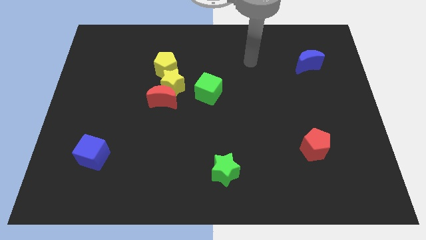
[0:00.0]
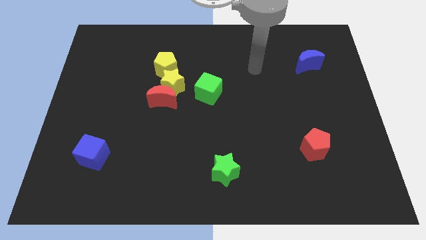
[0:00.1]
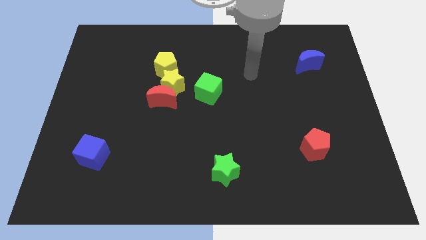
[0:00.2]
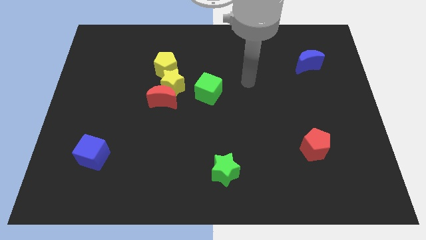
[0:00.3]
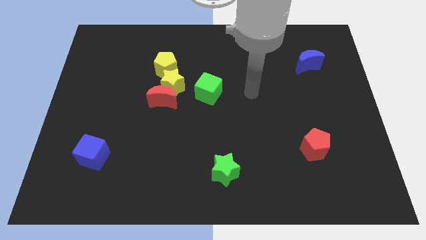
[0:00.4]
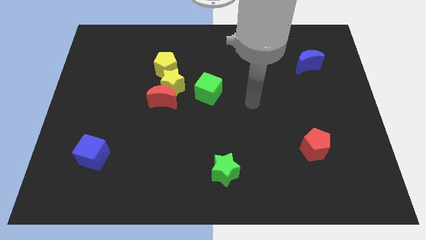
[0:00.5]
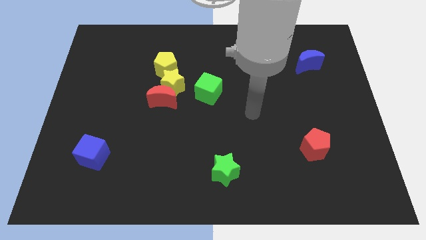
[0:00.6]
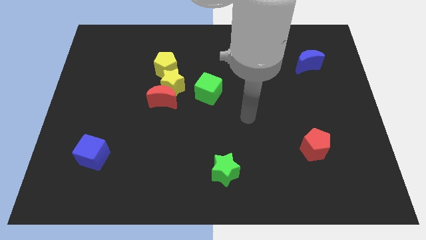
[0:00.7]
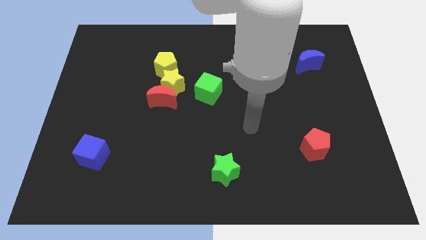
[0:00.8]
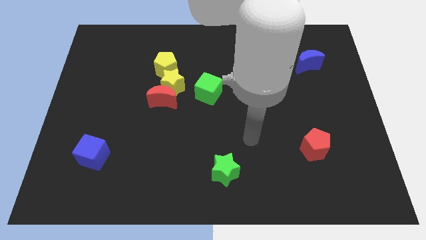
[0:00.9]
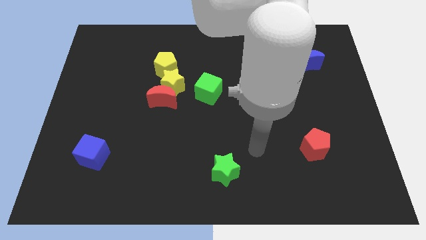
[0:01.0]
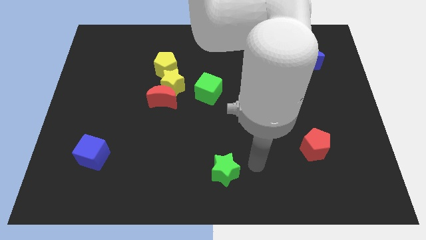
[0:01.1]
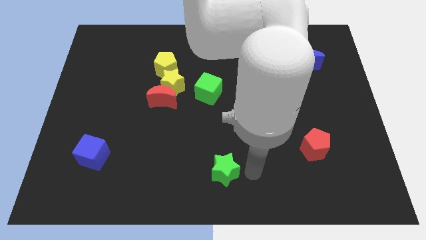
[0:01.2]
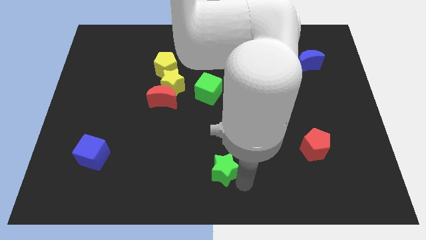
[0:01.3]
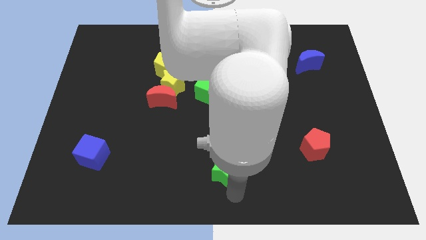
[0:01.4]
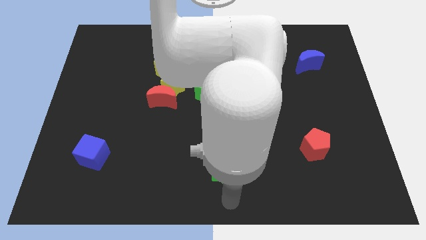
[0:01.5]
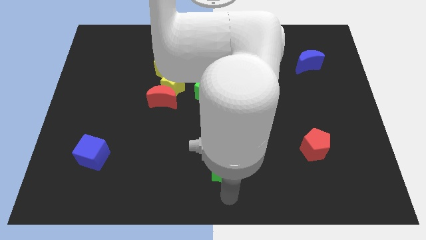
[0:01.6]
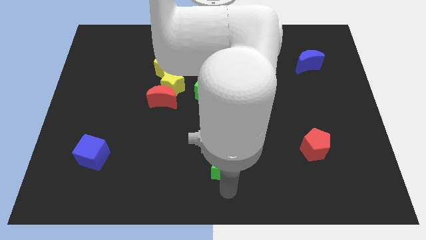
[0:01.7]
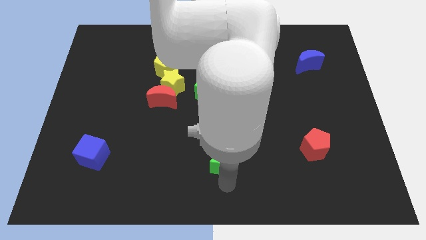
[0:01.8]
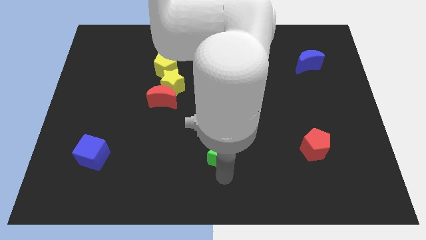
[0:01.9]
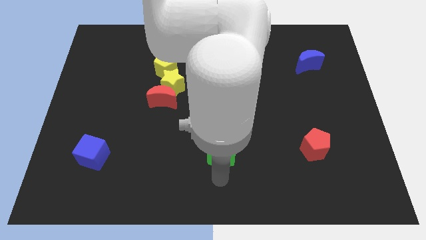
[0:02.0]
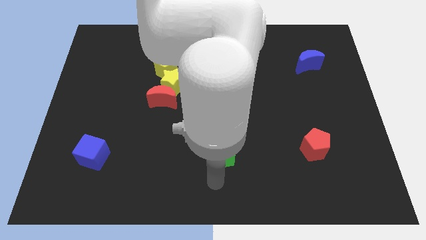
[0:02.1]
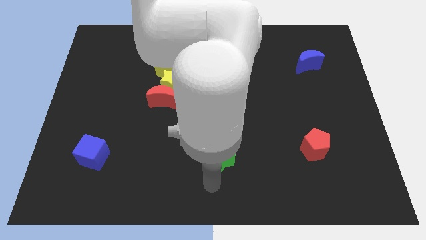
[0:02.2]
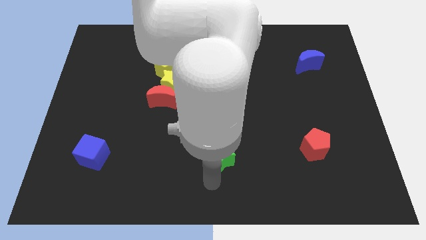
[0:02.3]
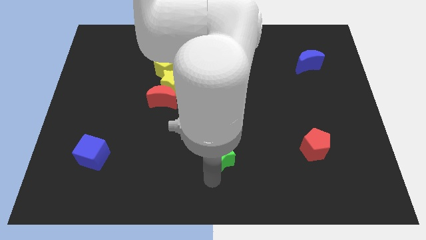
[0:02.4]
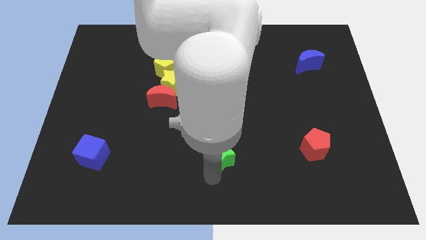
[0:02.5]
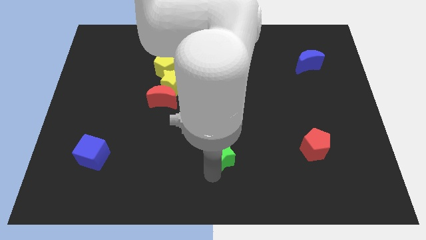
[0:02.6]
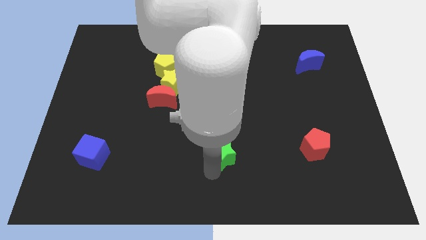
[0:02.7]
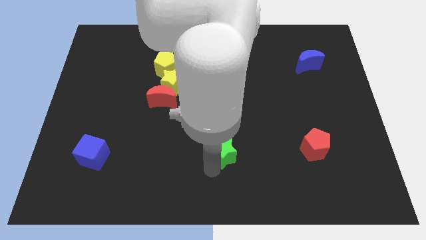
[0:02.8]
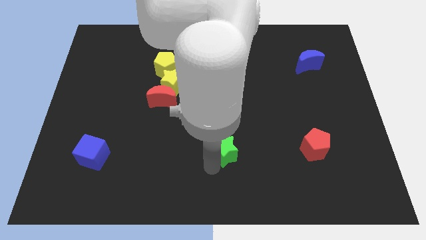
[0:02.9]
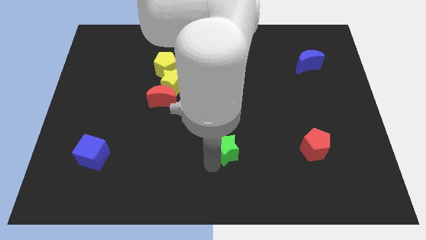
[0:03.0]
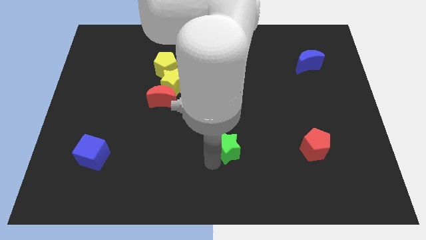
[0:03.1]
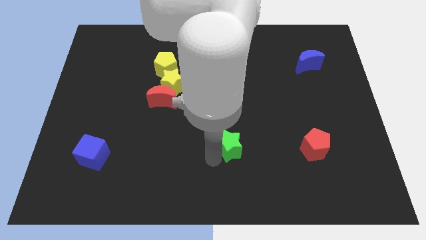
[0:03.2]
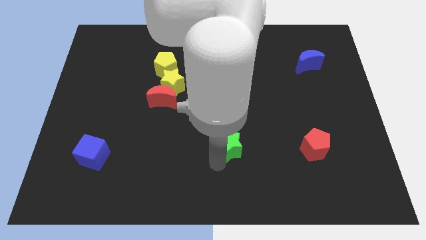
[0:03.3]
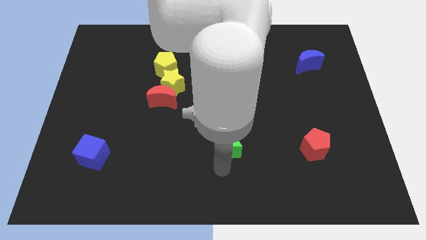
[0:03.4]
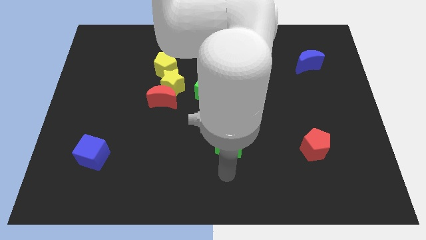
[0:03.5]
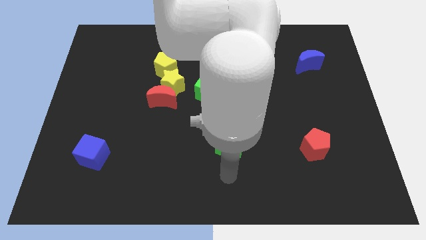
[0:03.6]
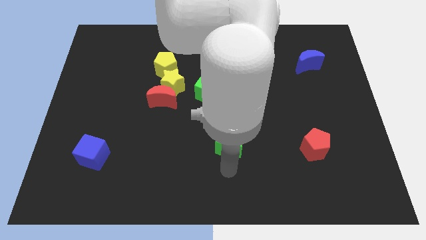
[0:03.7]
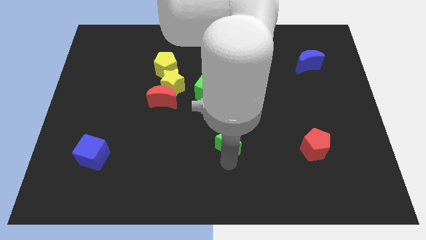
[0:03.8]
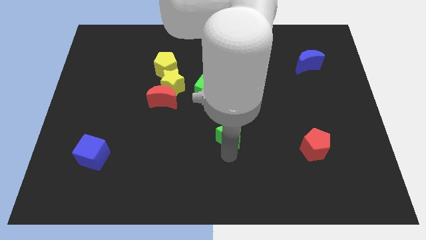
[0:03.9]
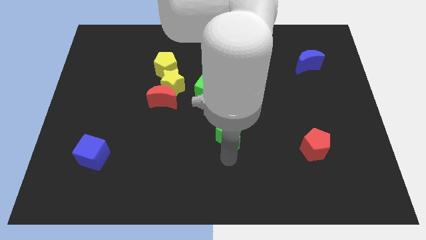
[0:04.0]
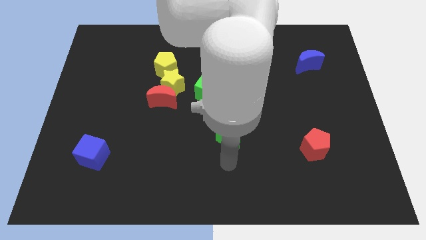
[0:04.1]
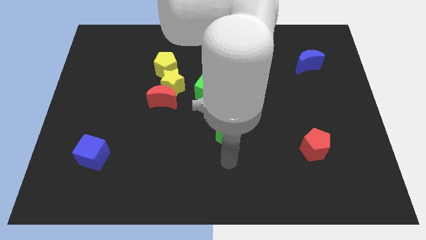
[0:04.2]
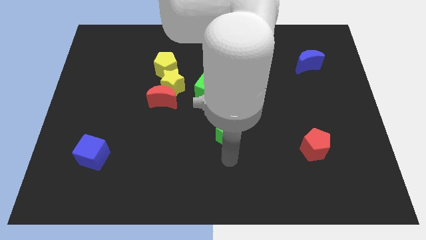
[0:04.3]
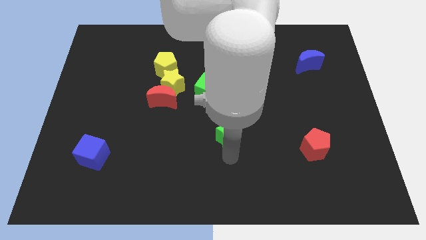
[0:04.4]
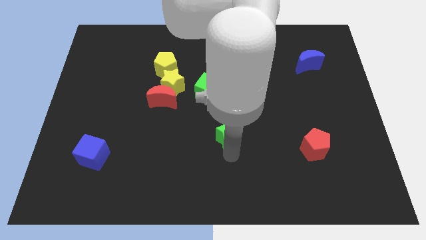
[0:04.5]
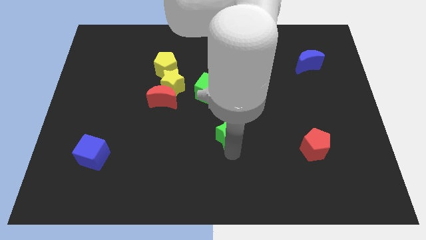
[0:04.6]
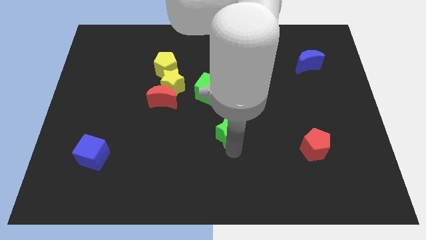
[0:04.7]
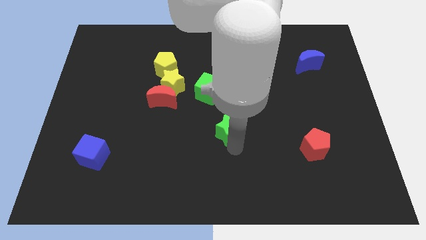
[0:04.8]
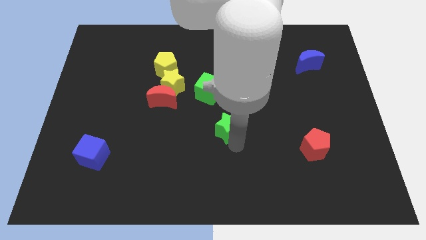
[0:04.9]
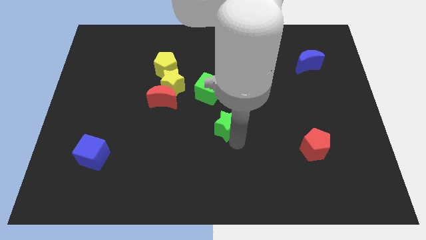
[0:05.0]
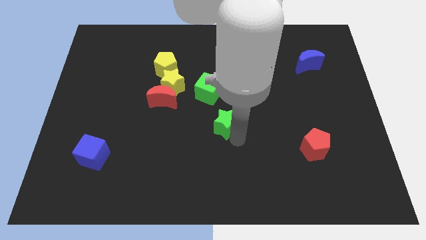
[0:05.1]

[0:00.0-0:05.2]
put the green star diagonally down and to the right of the green cube

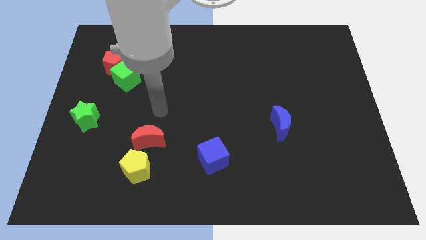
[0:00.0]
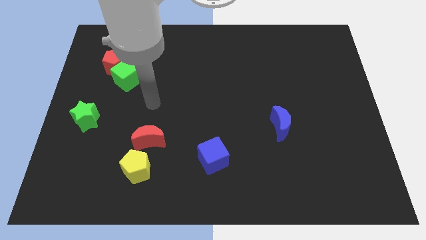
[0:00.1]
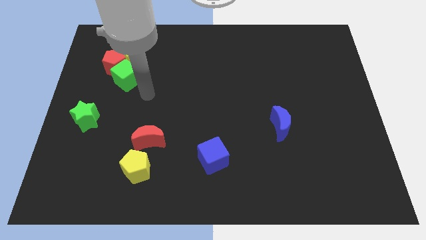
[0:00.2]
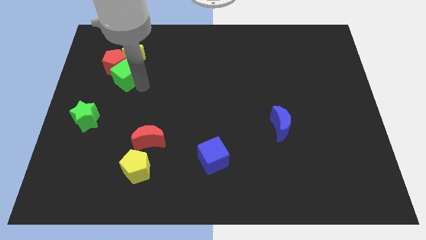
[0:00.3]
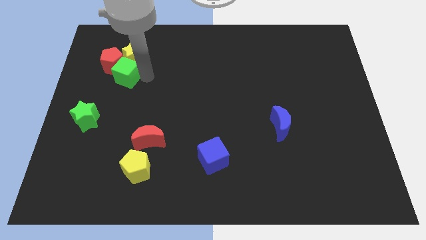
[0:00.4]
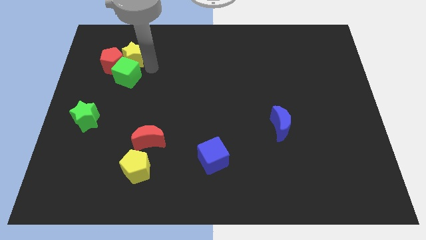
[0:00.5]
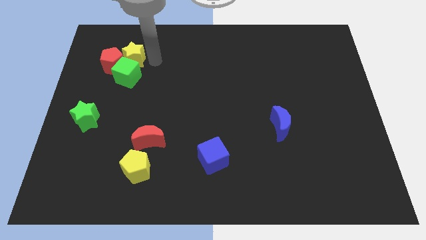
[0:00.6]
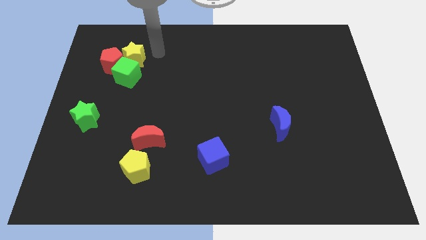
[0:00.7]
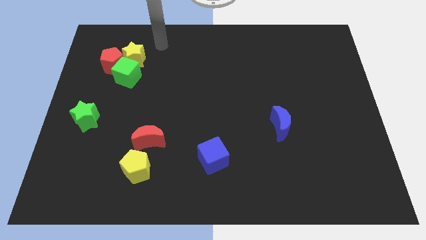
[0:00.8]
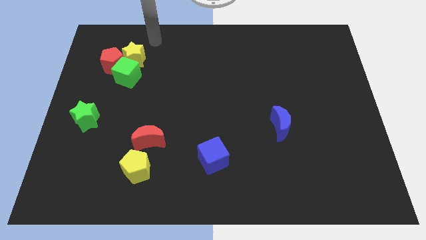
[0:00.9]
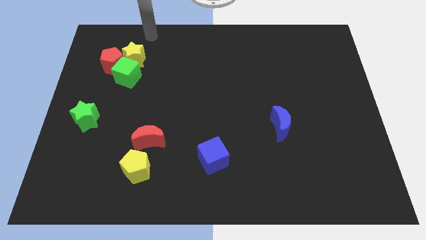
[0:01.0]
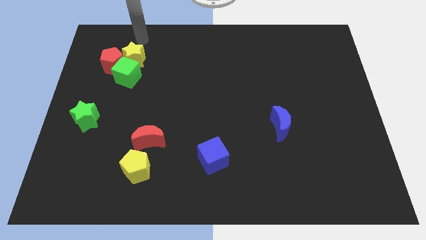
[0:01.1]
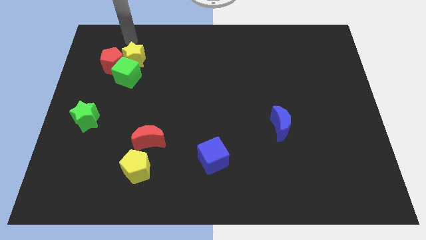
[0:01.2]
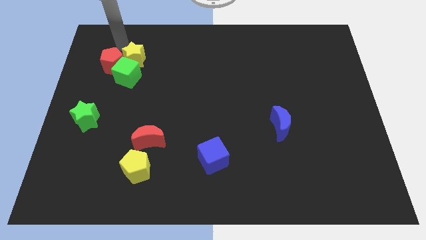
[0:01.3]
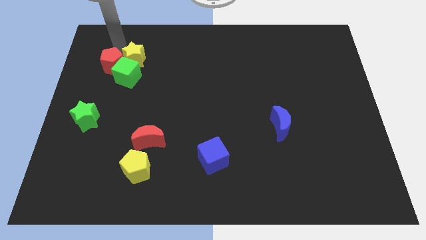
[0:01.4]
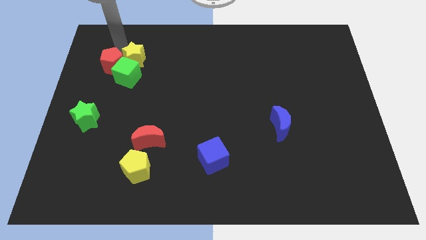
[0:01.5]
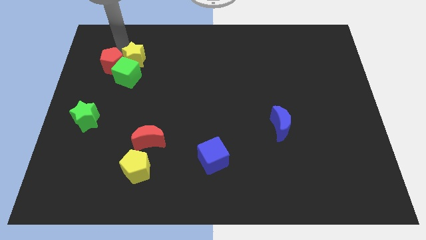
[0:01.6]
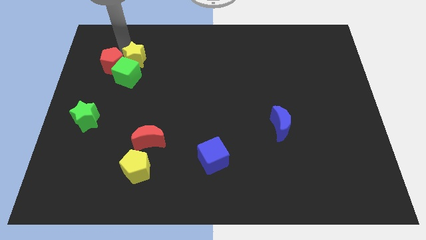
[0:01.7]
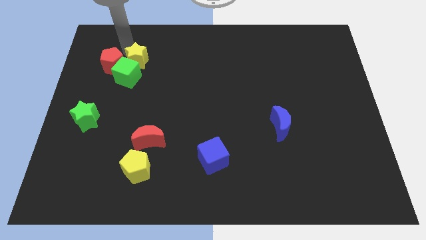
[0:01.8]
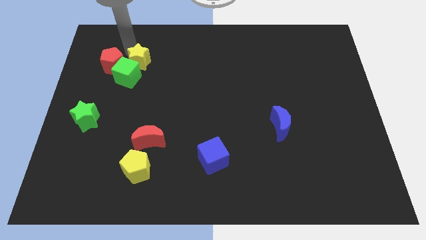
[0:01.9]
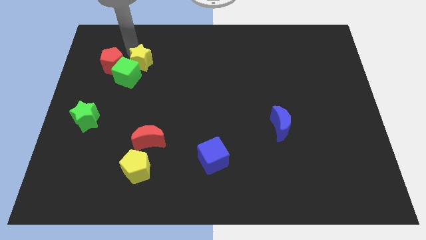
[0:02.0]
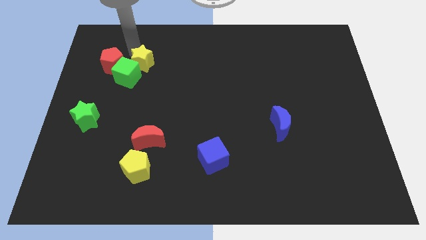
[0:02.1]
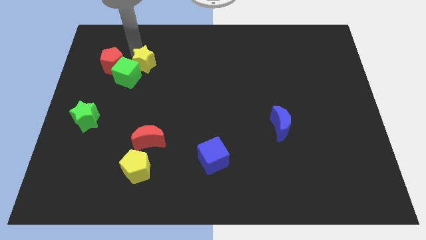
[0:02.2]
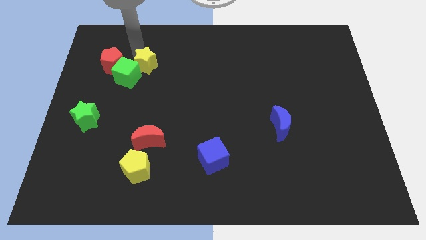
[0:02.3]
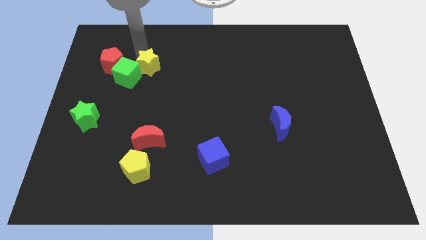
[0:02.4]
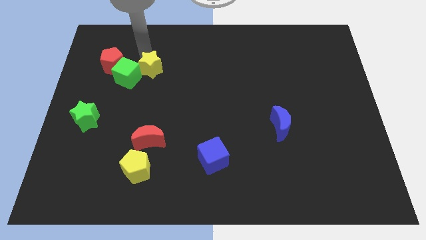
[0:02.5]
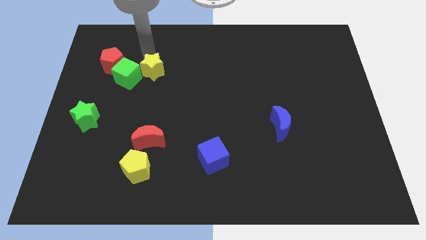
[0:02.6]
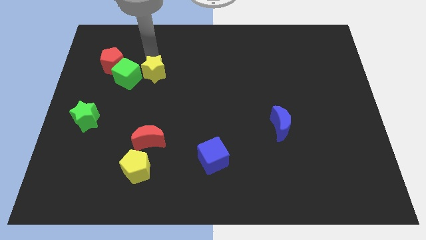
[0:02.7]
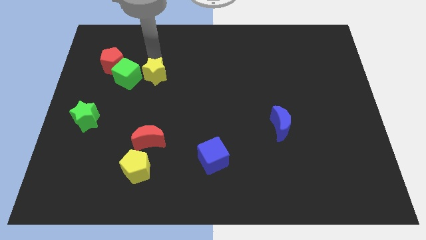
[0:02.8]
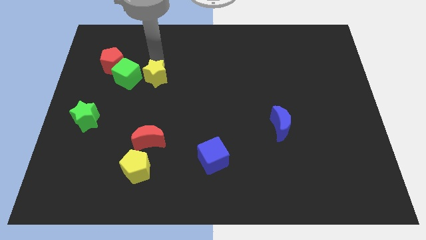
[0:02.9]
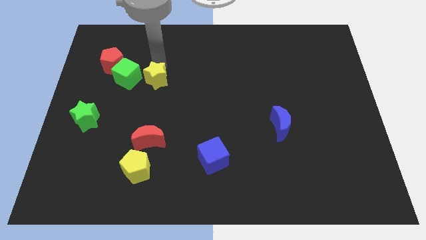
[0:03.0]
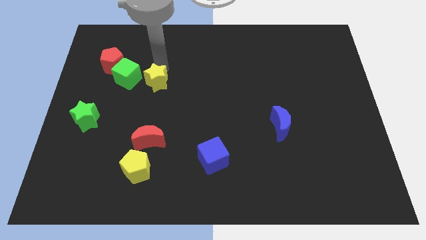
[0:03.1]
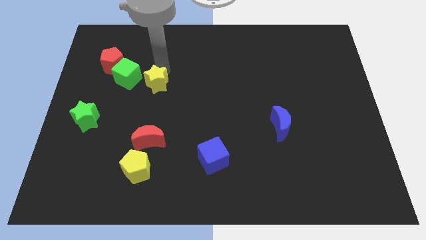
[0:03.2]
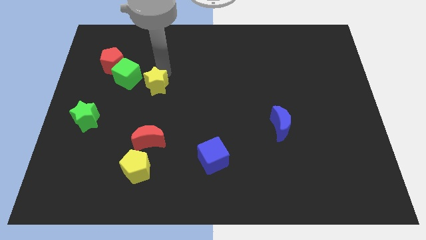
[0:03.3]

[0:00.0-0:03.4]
push the yellow star above the red moon
